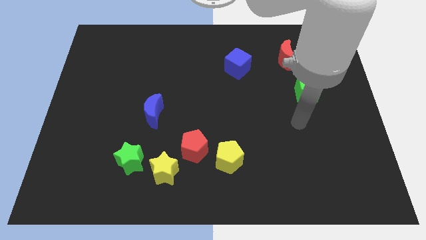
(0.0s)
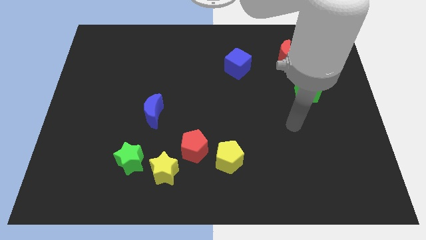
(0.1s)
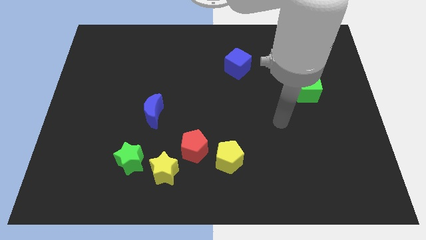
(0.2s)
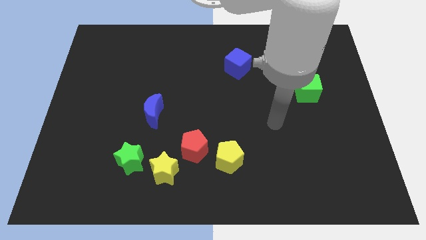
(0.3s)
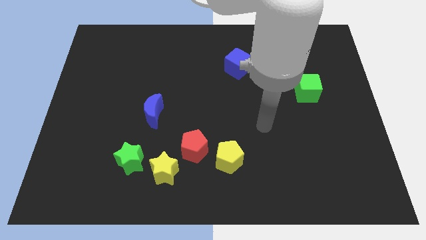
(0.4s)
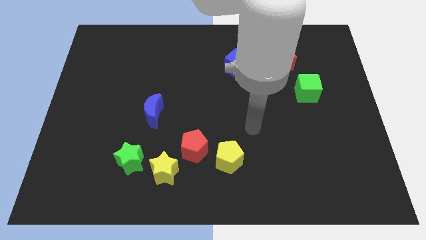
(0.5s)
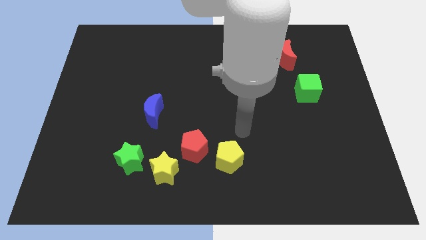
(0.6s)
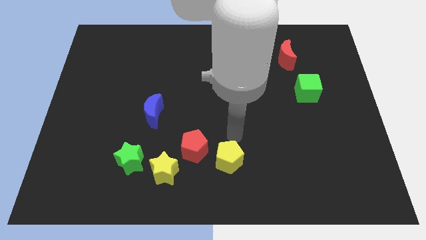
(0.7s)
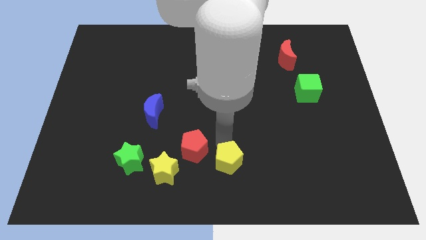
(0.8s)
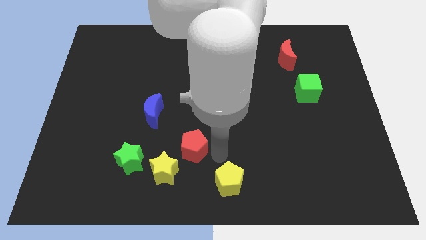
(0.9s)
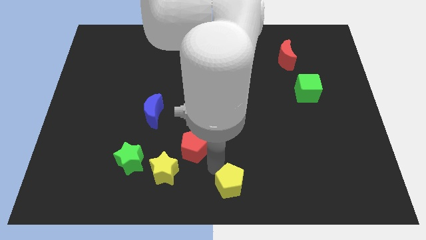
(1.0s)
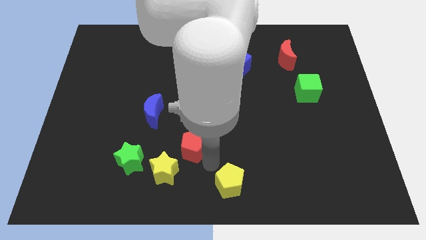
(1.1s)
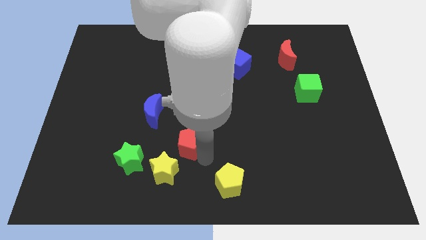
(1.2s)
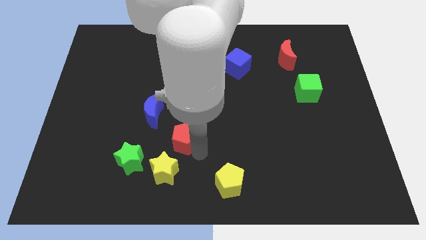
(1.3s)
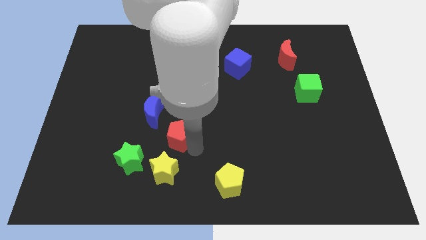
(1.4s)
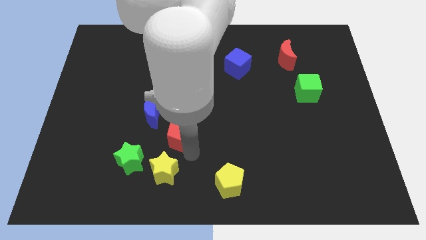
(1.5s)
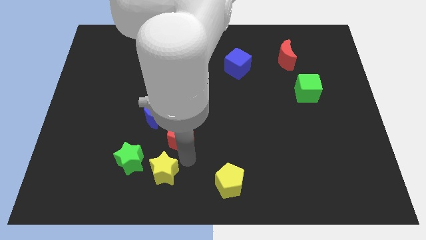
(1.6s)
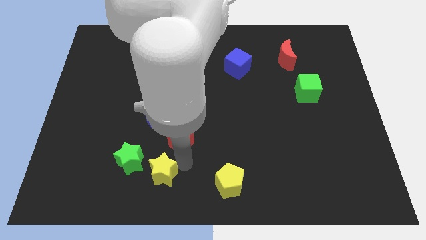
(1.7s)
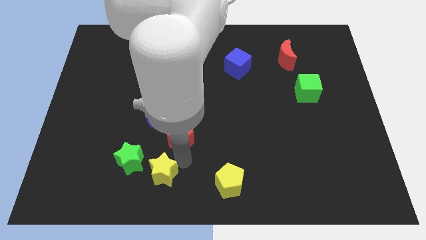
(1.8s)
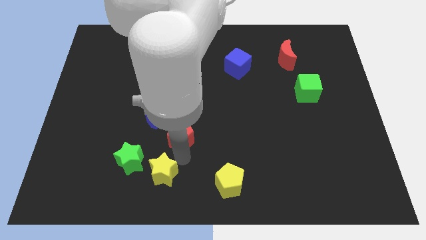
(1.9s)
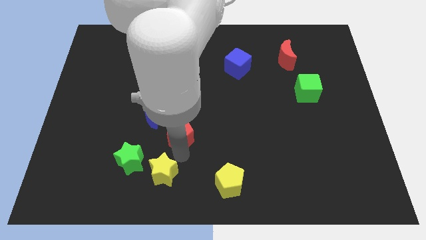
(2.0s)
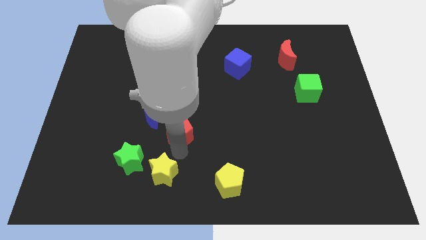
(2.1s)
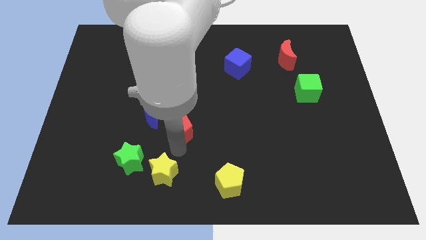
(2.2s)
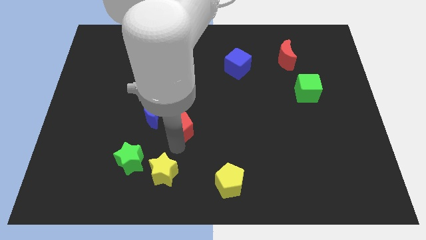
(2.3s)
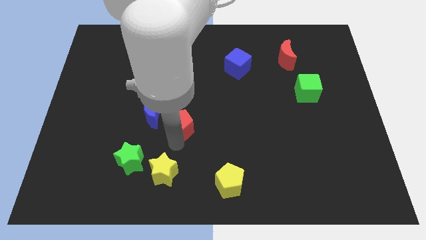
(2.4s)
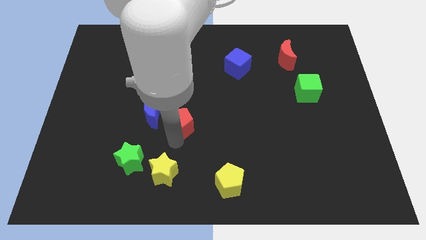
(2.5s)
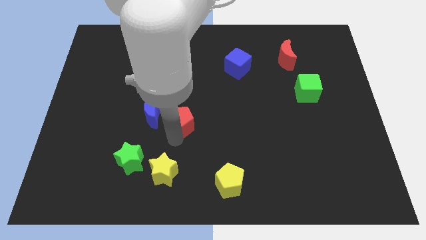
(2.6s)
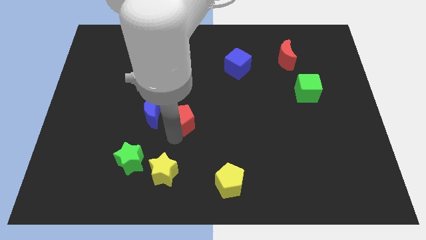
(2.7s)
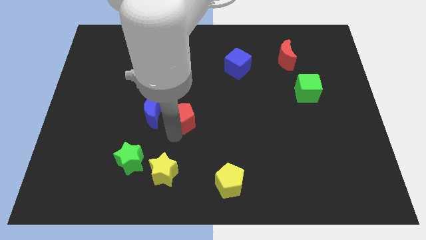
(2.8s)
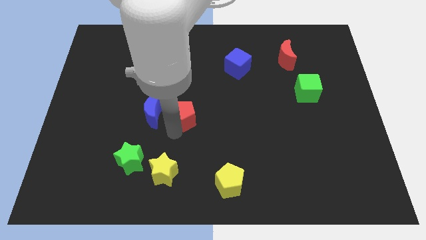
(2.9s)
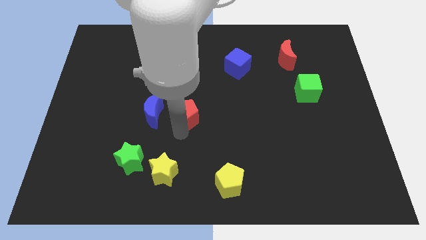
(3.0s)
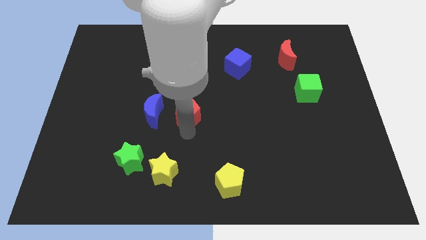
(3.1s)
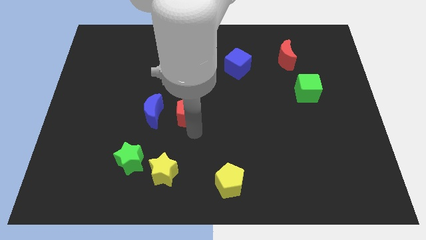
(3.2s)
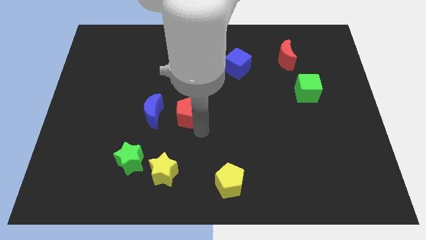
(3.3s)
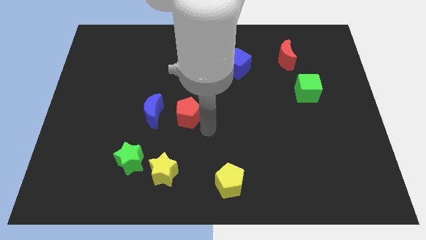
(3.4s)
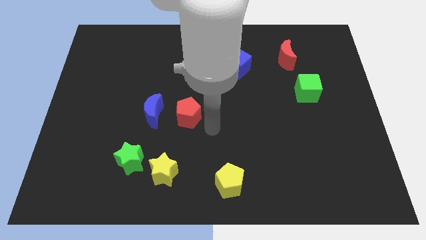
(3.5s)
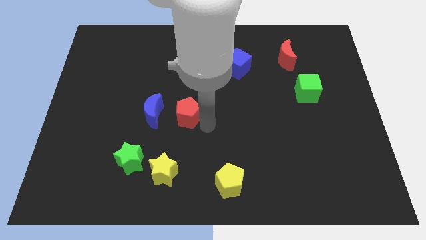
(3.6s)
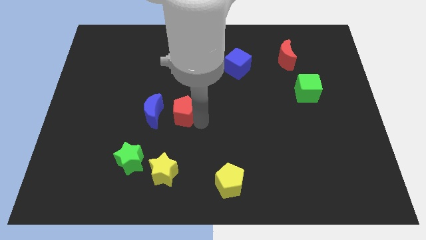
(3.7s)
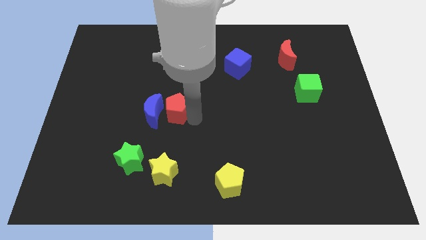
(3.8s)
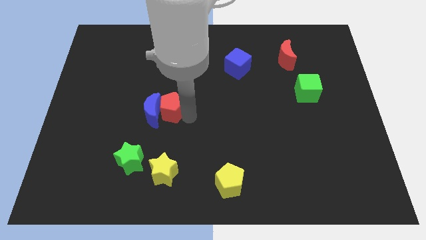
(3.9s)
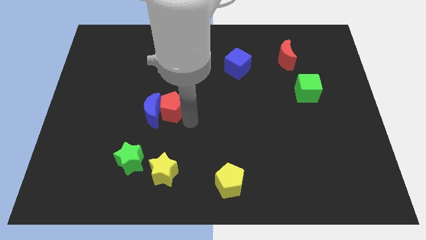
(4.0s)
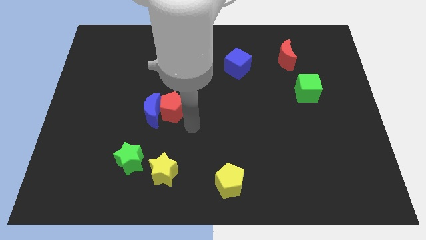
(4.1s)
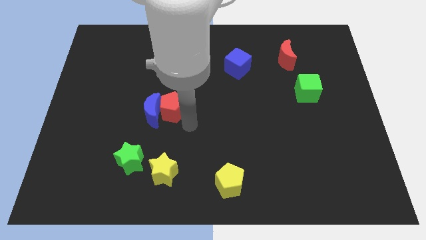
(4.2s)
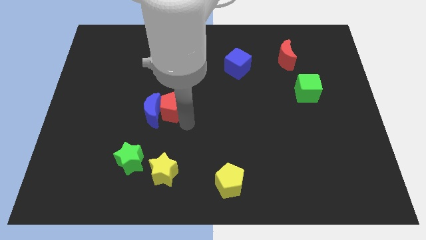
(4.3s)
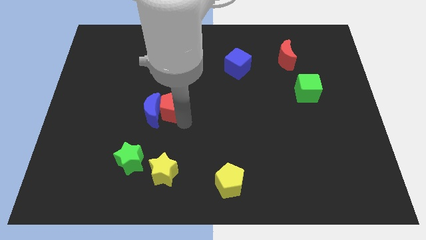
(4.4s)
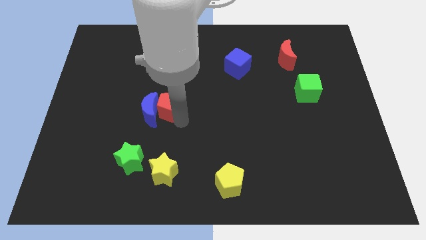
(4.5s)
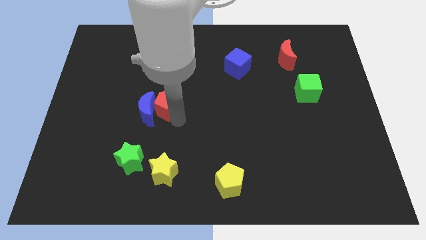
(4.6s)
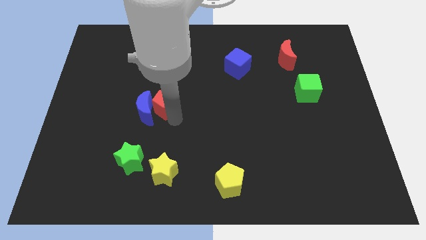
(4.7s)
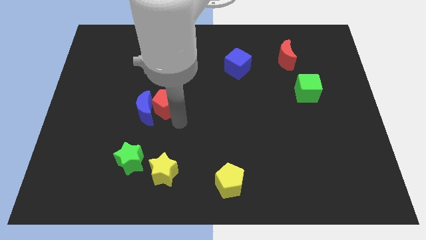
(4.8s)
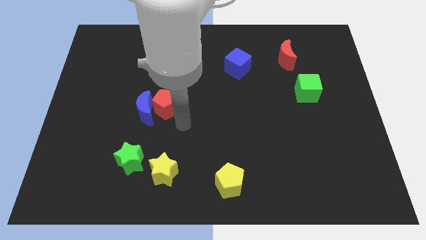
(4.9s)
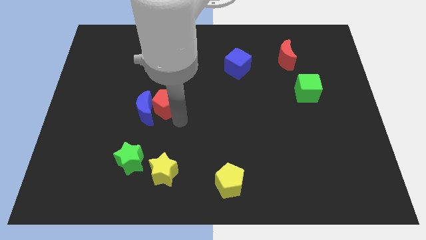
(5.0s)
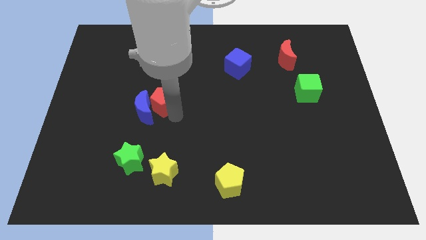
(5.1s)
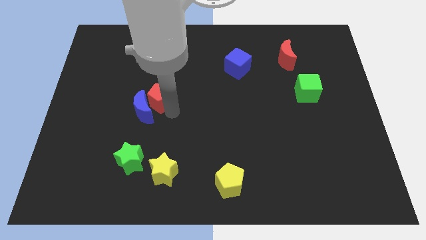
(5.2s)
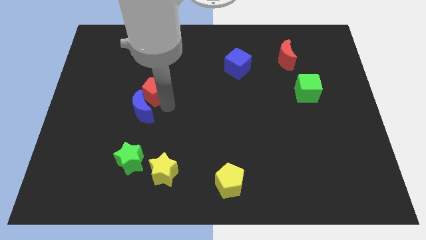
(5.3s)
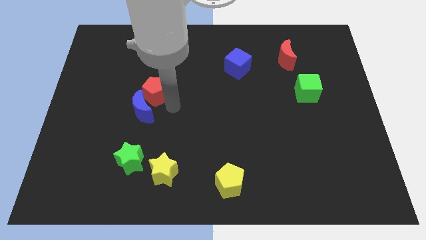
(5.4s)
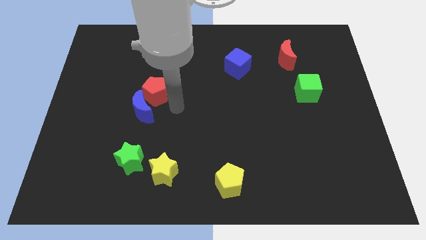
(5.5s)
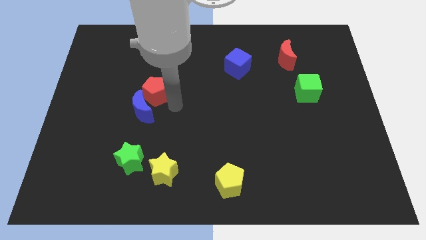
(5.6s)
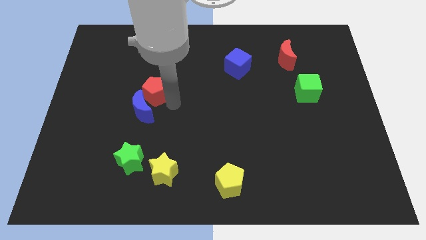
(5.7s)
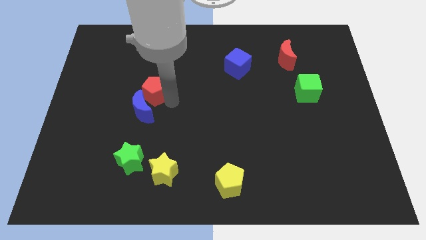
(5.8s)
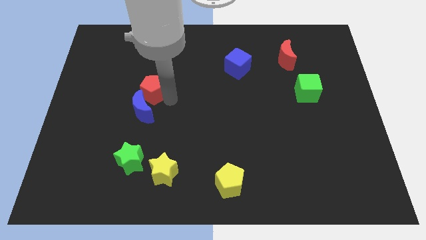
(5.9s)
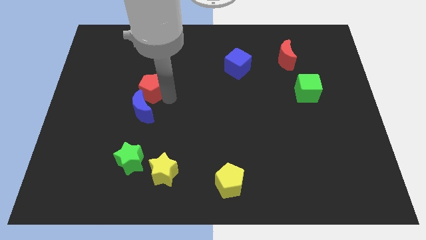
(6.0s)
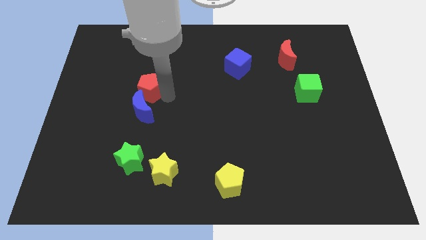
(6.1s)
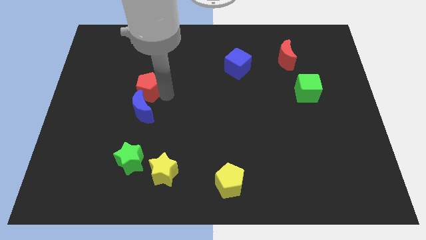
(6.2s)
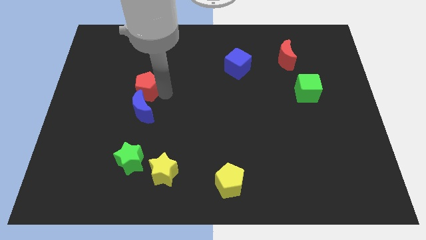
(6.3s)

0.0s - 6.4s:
push the red pentagon up and left diagonally

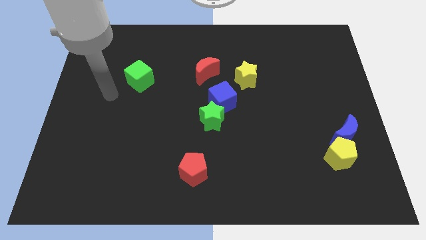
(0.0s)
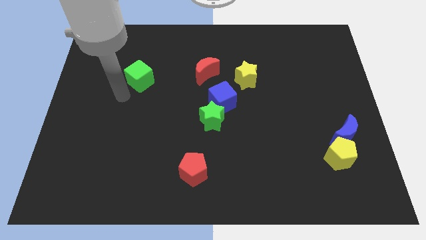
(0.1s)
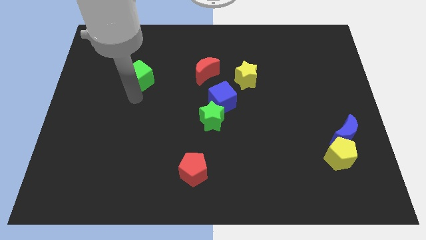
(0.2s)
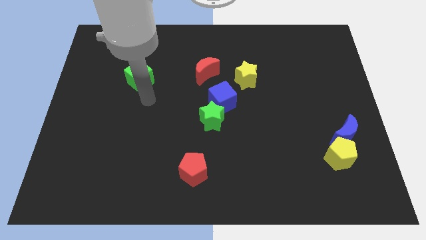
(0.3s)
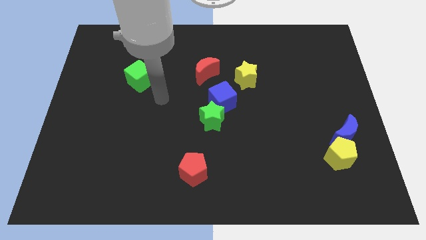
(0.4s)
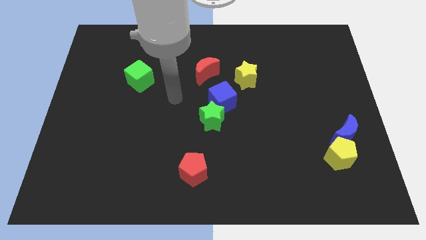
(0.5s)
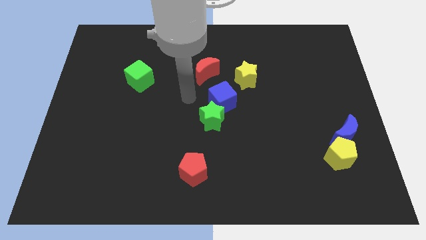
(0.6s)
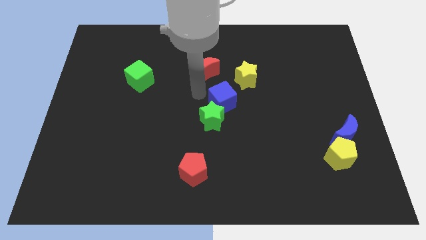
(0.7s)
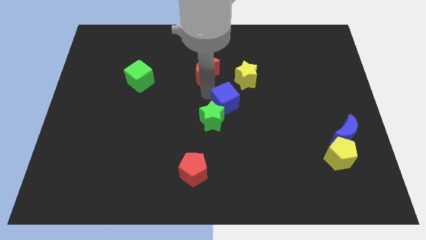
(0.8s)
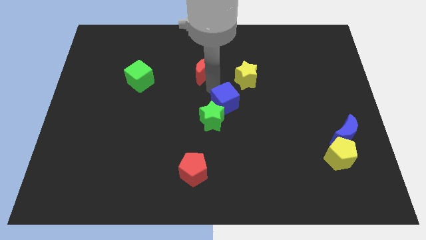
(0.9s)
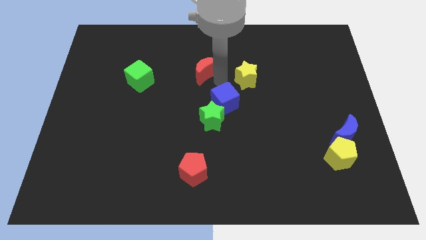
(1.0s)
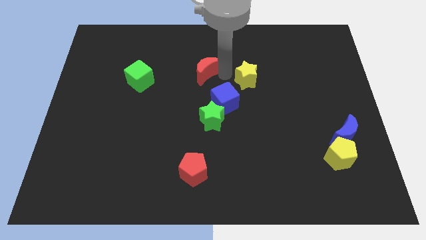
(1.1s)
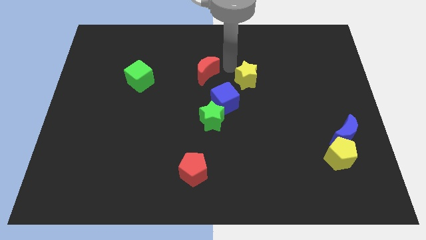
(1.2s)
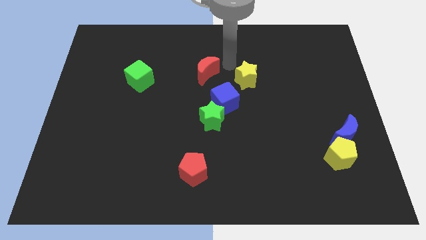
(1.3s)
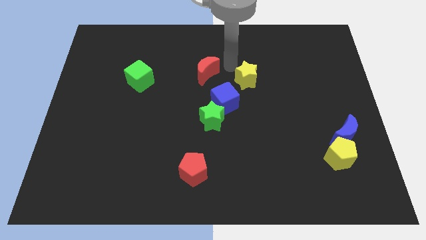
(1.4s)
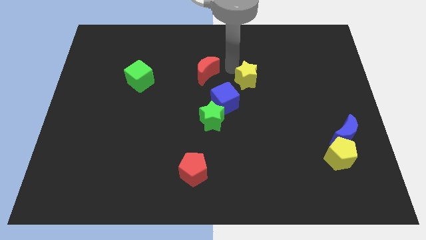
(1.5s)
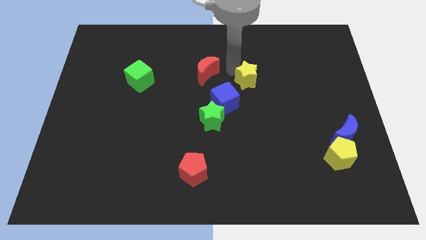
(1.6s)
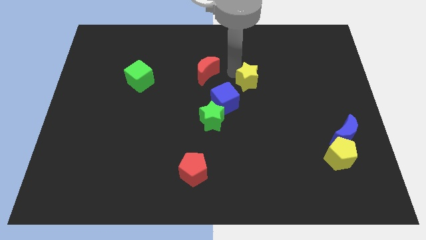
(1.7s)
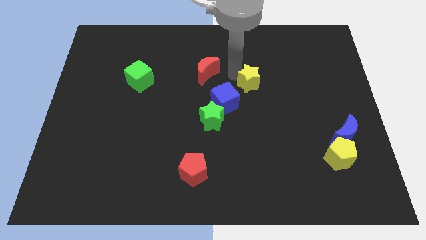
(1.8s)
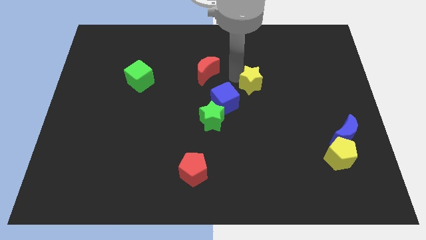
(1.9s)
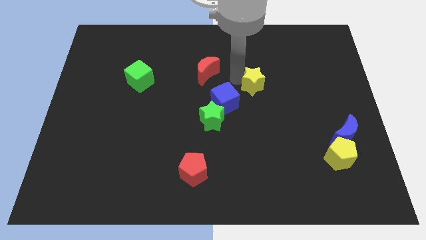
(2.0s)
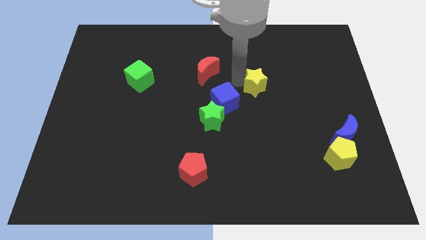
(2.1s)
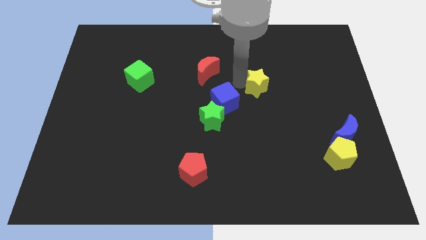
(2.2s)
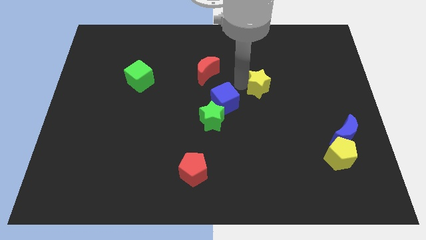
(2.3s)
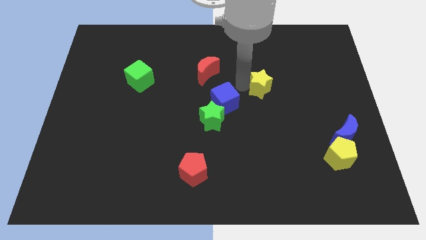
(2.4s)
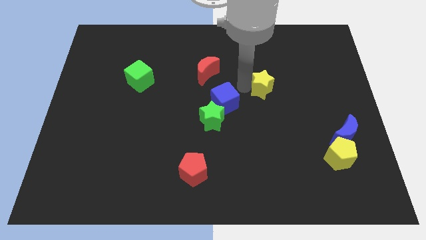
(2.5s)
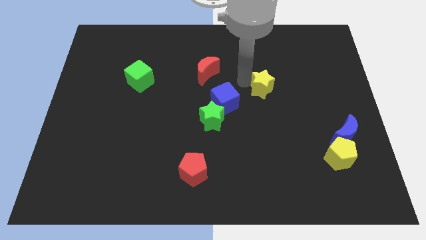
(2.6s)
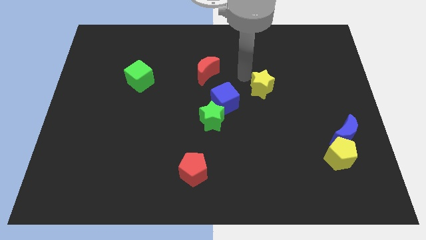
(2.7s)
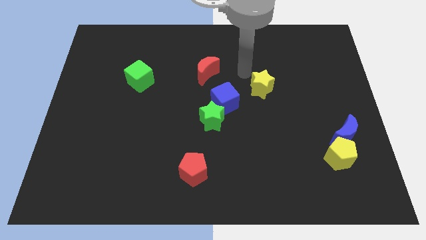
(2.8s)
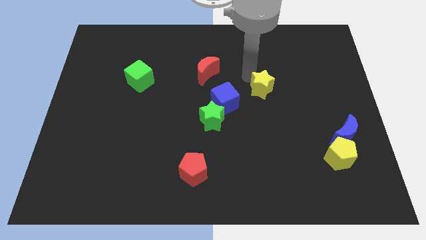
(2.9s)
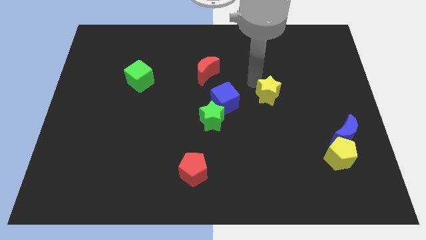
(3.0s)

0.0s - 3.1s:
slide the yellow star a little bit diagonally downwards and right
